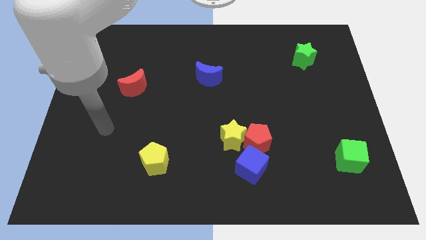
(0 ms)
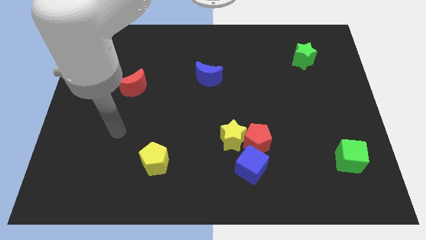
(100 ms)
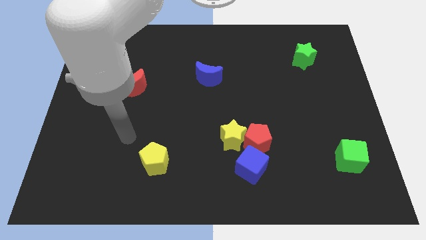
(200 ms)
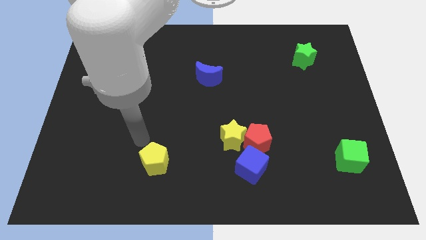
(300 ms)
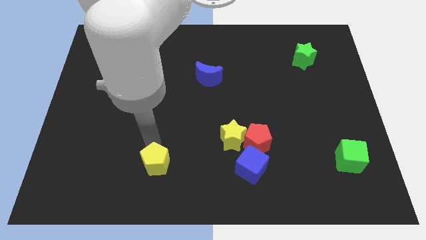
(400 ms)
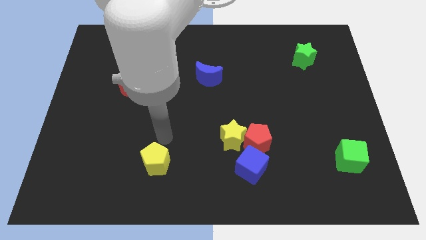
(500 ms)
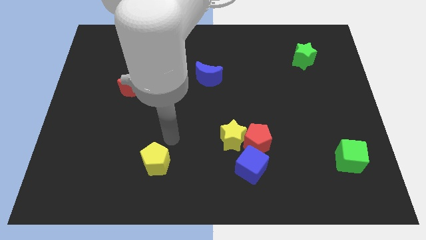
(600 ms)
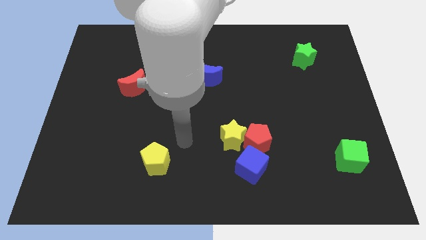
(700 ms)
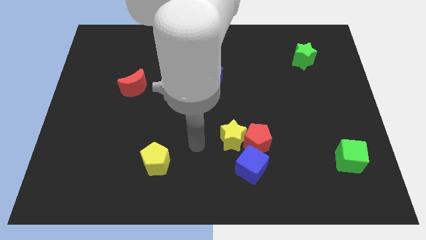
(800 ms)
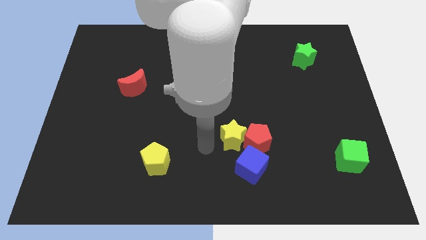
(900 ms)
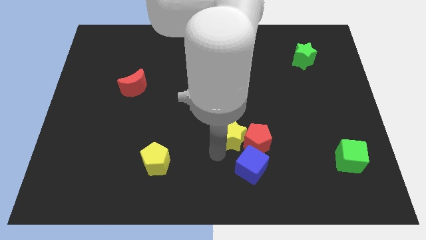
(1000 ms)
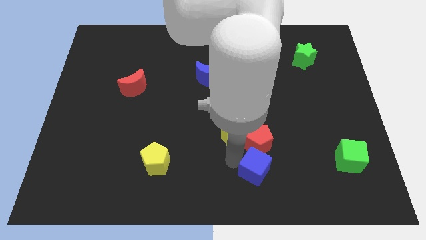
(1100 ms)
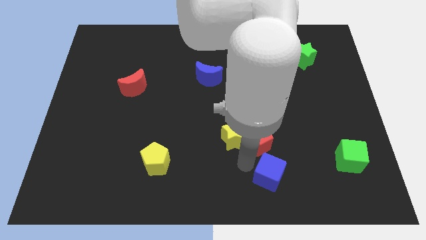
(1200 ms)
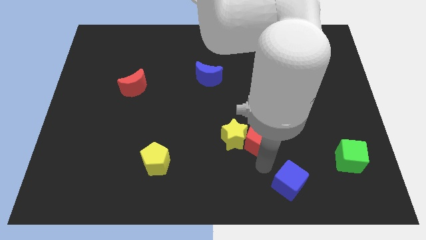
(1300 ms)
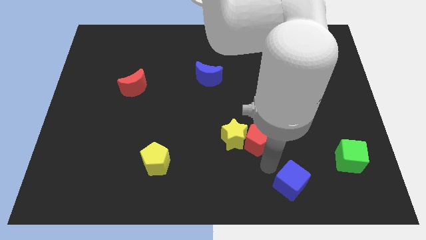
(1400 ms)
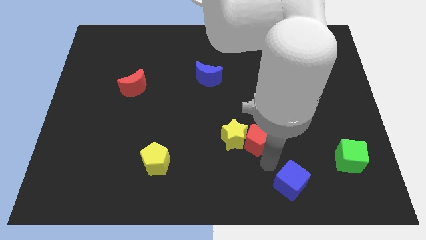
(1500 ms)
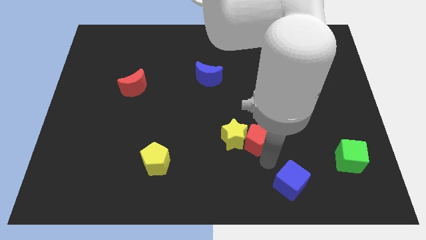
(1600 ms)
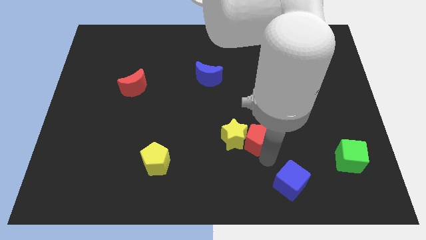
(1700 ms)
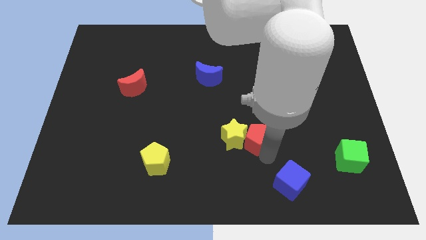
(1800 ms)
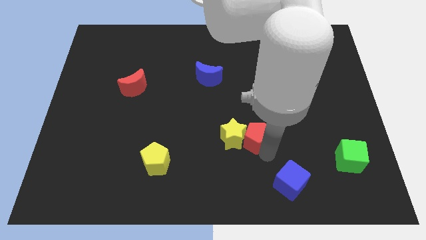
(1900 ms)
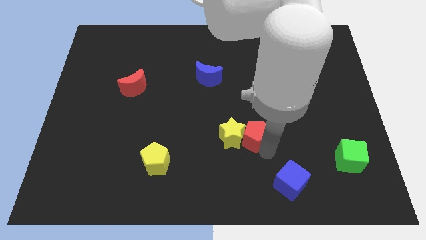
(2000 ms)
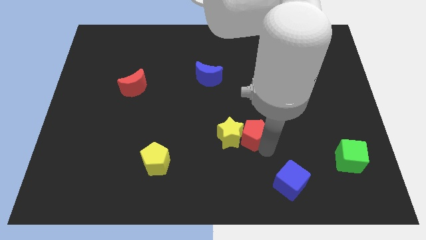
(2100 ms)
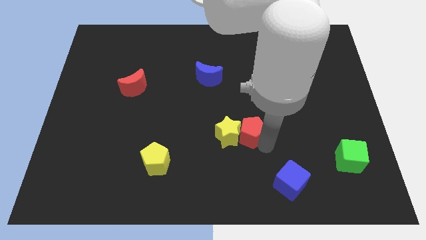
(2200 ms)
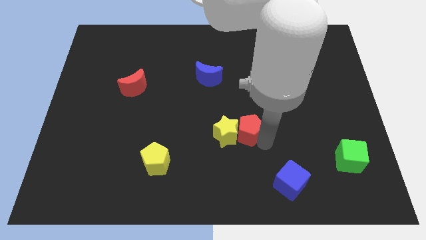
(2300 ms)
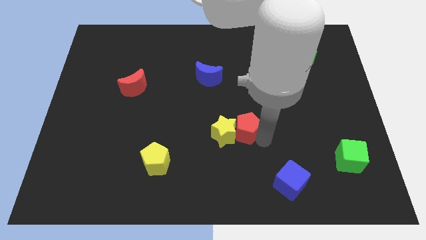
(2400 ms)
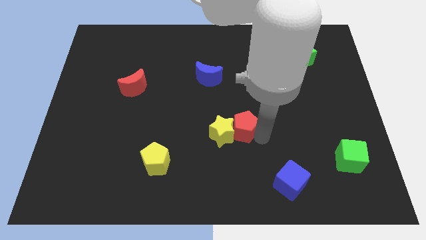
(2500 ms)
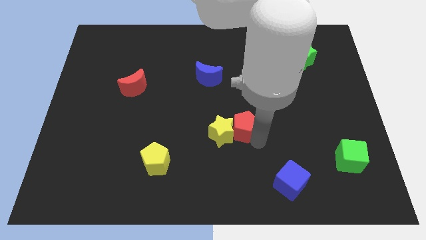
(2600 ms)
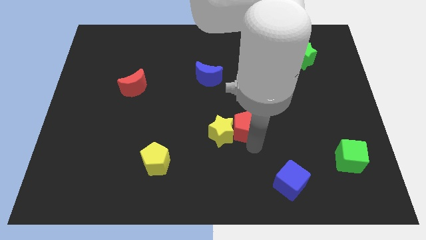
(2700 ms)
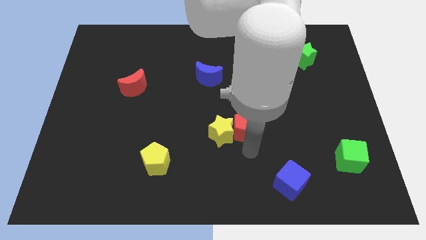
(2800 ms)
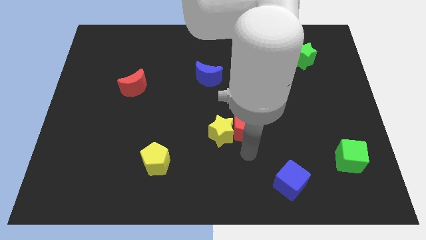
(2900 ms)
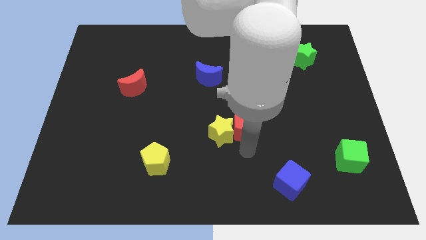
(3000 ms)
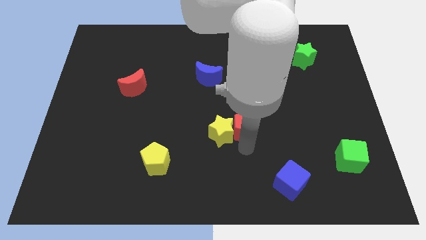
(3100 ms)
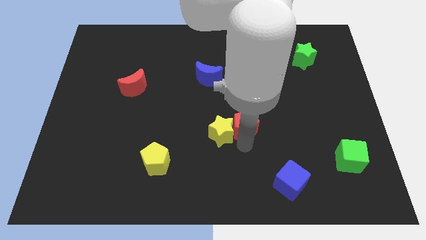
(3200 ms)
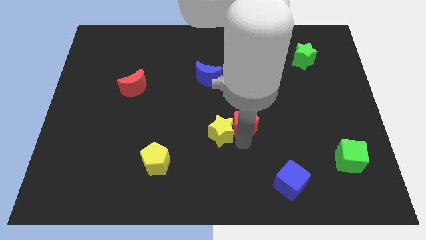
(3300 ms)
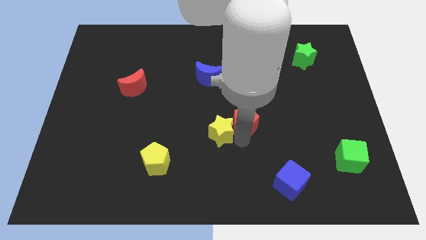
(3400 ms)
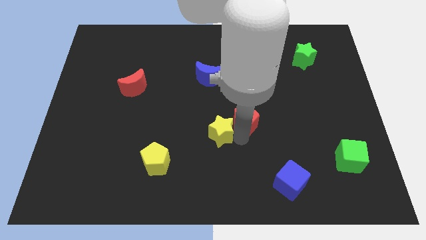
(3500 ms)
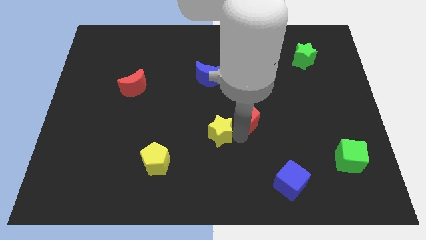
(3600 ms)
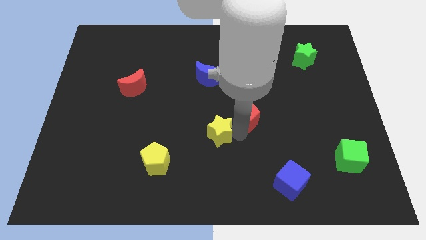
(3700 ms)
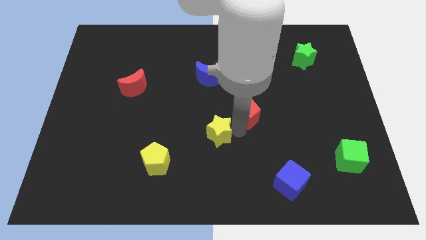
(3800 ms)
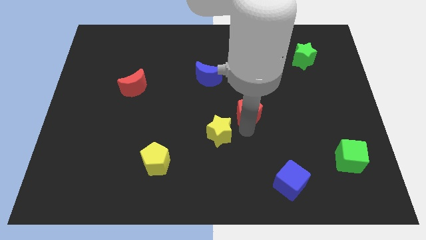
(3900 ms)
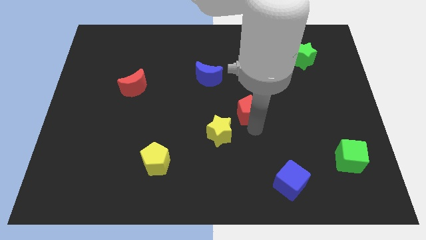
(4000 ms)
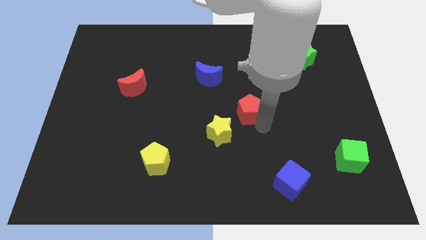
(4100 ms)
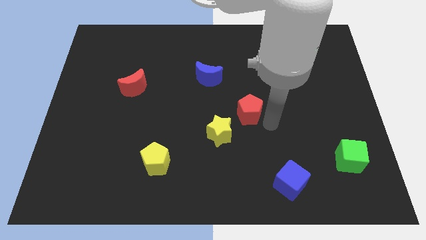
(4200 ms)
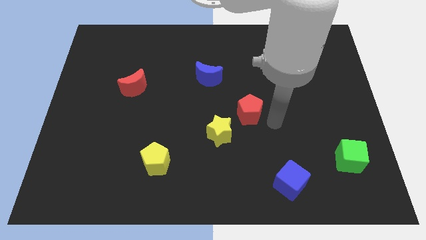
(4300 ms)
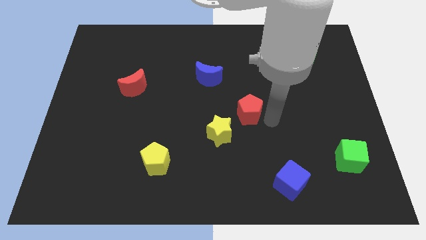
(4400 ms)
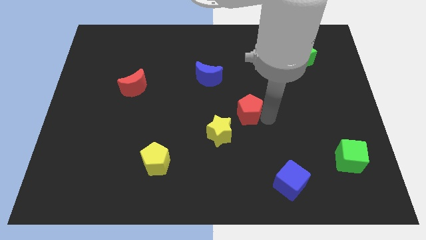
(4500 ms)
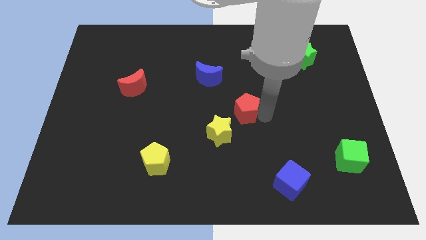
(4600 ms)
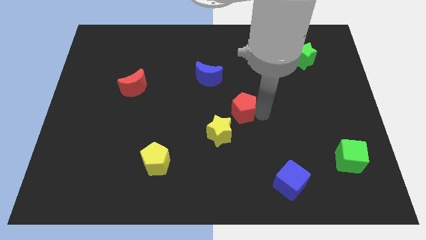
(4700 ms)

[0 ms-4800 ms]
slide the red pentagon upwards and left diagonally a little bit

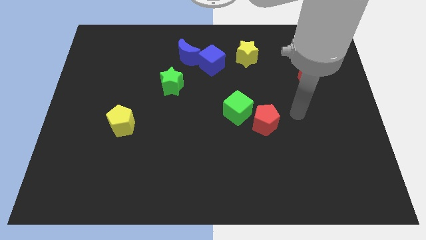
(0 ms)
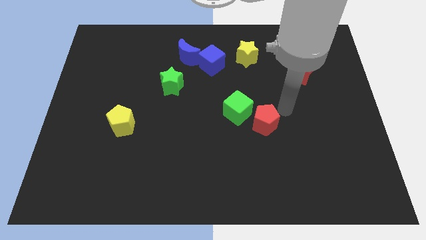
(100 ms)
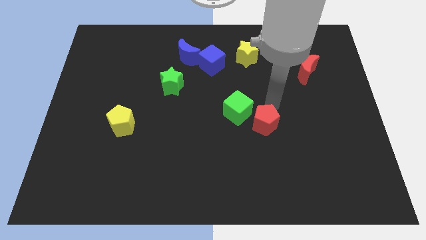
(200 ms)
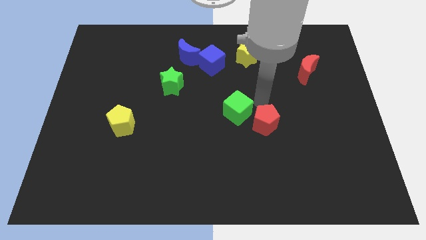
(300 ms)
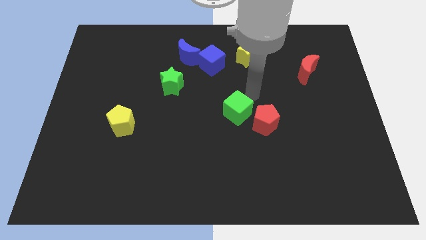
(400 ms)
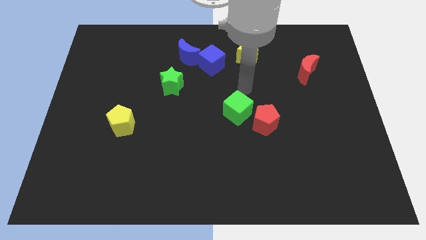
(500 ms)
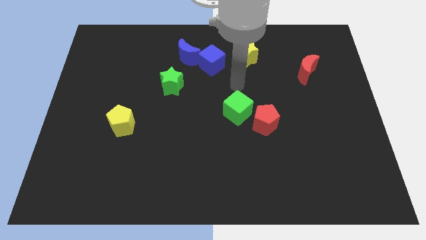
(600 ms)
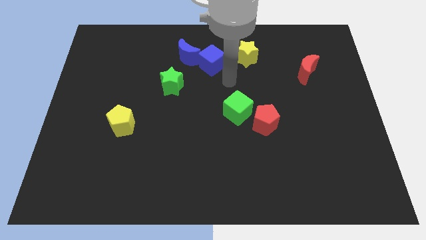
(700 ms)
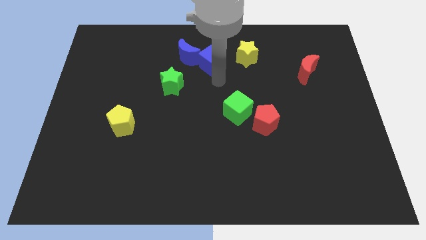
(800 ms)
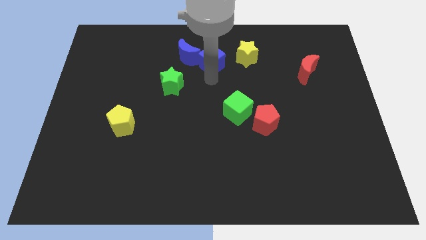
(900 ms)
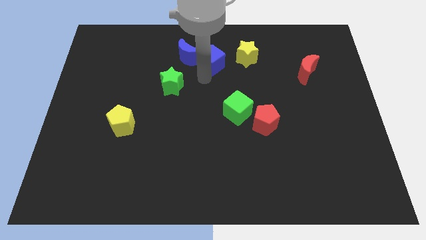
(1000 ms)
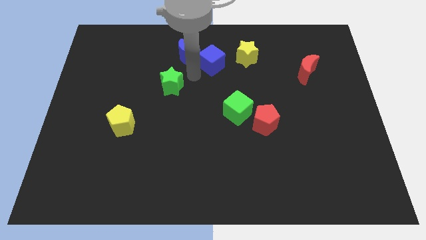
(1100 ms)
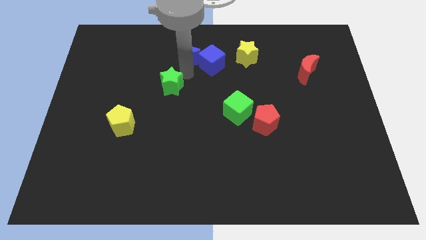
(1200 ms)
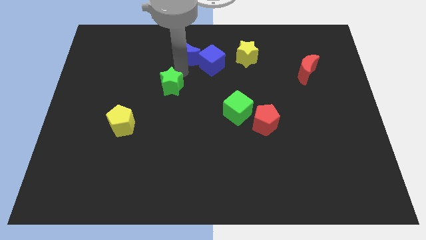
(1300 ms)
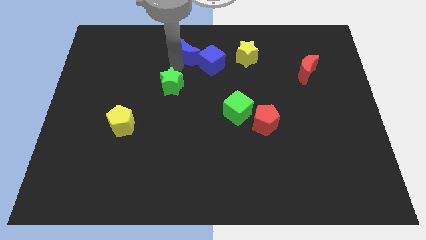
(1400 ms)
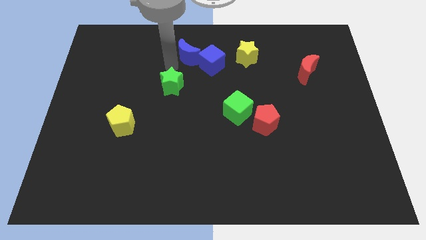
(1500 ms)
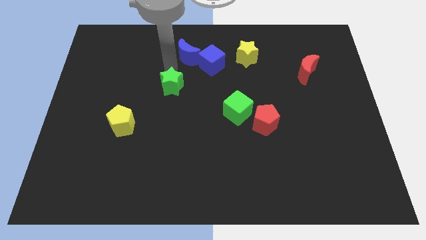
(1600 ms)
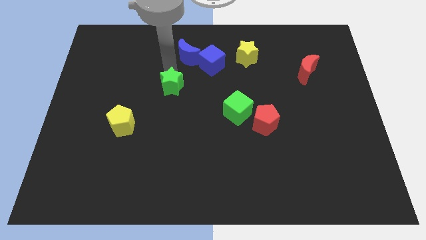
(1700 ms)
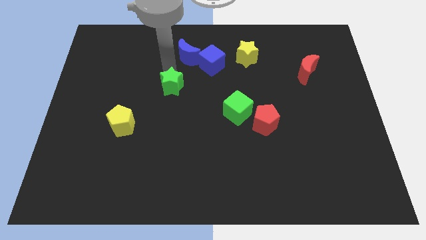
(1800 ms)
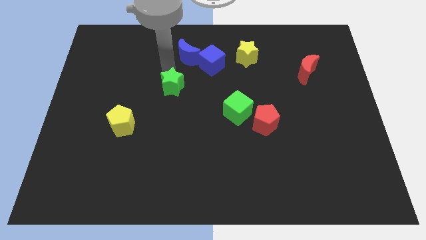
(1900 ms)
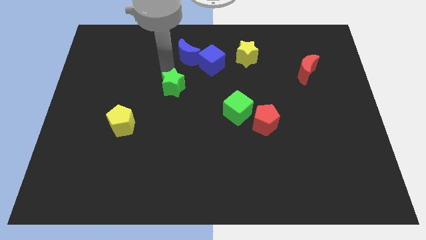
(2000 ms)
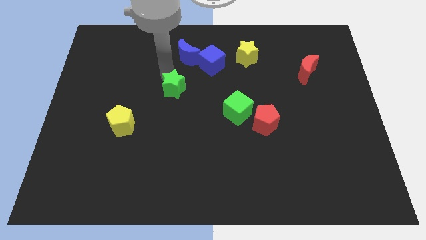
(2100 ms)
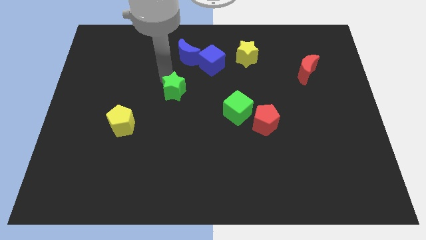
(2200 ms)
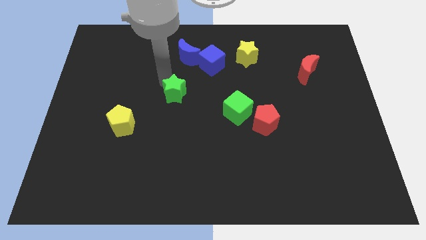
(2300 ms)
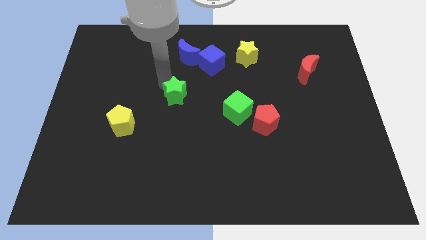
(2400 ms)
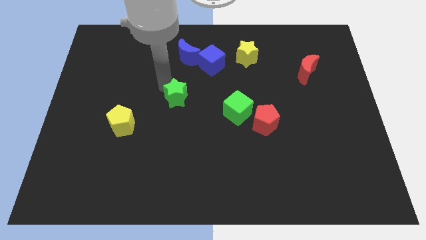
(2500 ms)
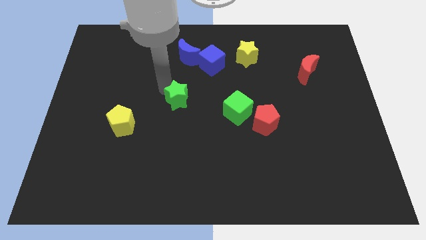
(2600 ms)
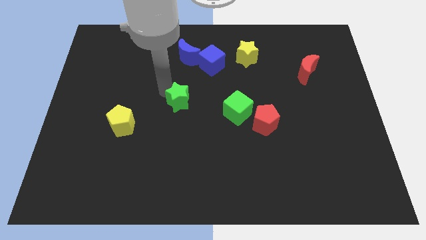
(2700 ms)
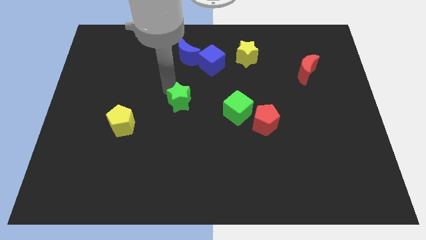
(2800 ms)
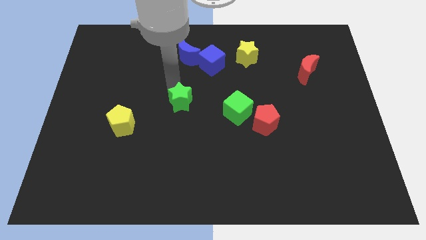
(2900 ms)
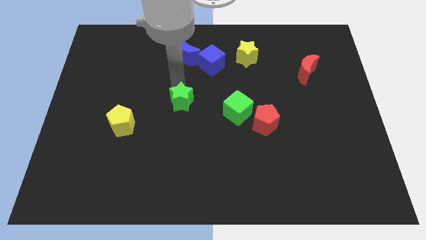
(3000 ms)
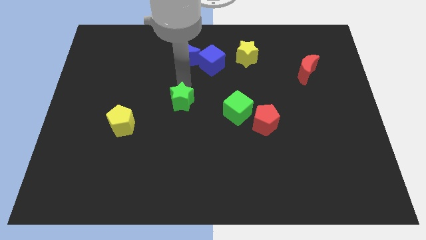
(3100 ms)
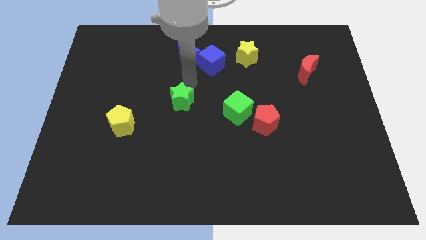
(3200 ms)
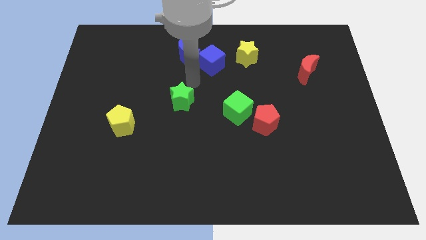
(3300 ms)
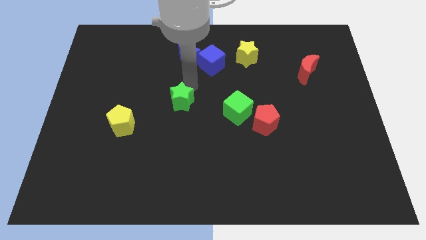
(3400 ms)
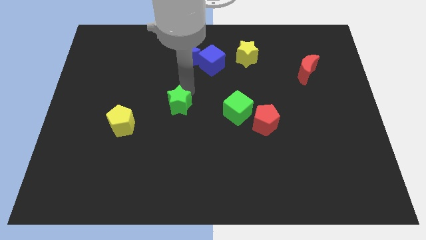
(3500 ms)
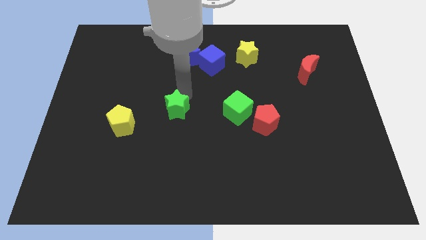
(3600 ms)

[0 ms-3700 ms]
move the green star down a bit
